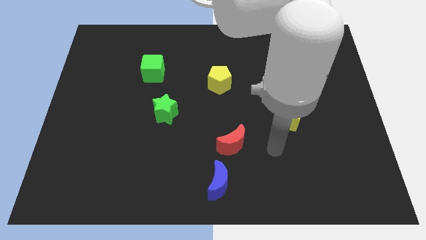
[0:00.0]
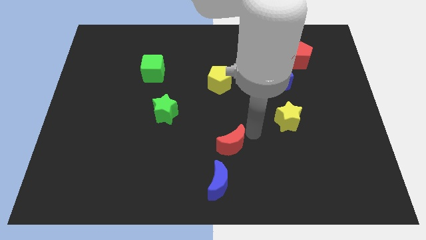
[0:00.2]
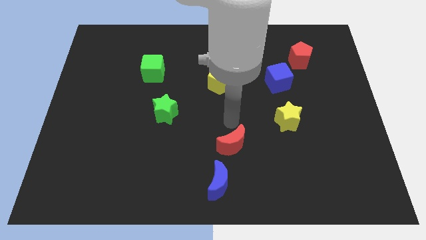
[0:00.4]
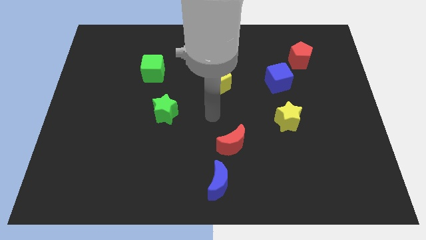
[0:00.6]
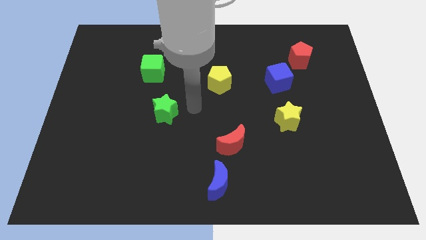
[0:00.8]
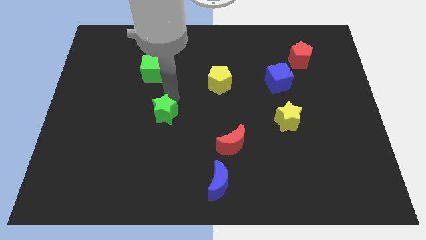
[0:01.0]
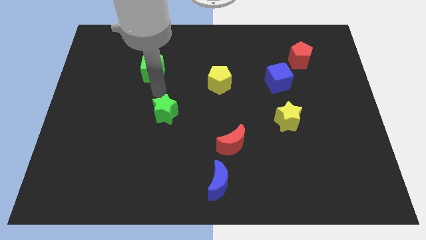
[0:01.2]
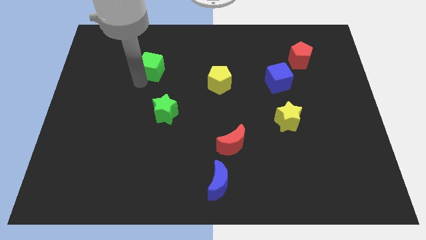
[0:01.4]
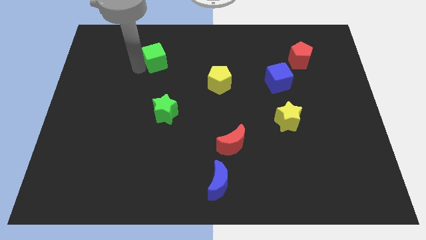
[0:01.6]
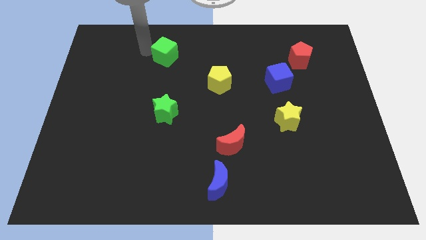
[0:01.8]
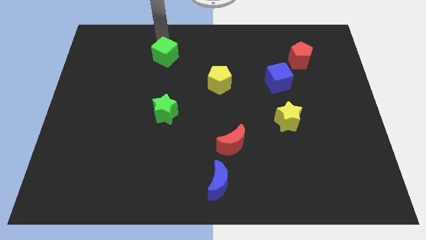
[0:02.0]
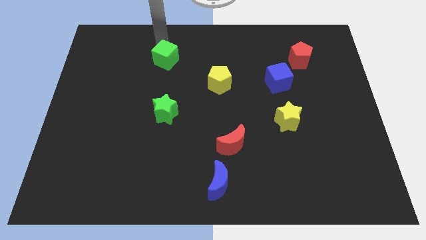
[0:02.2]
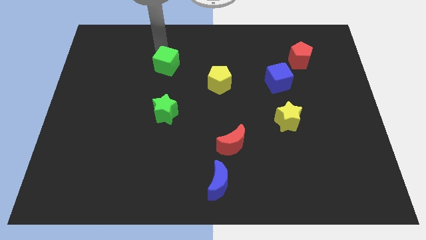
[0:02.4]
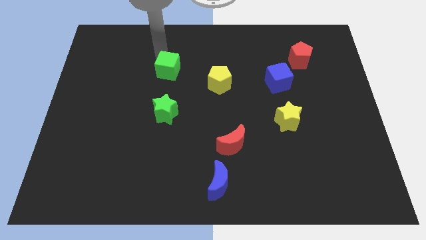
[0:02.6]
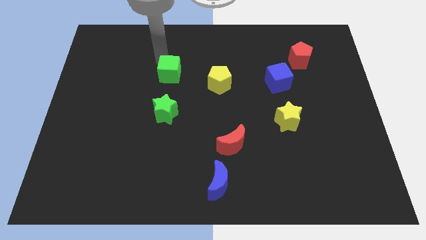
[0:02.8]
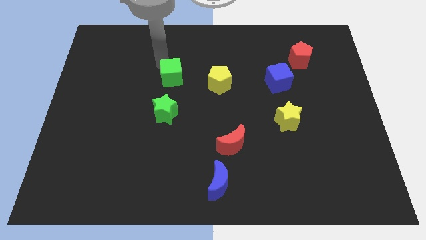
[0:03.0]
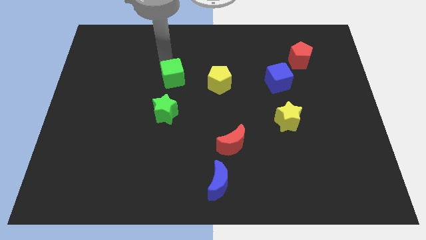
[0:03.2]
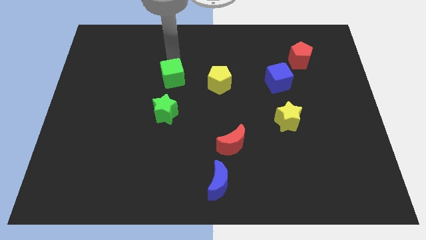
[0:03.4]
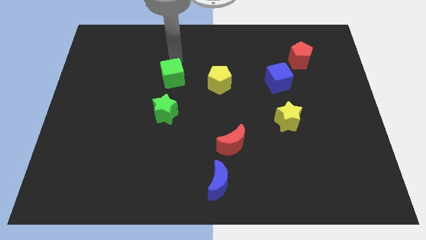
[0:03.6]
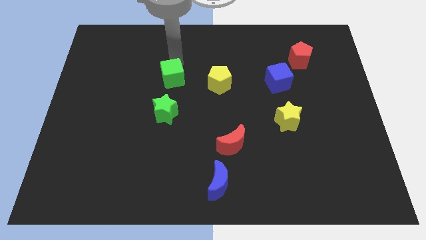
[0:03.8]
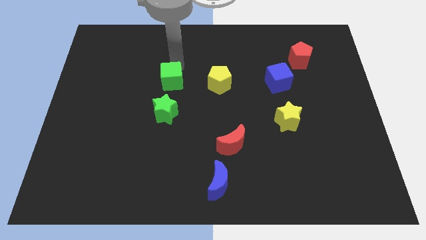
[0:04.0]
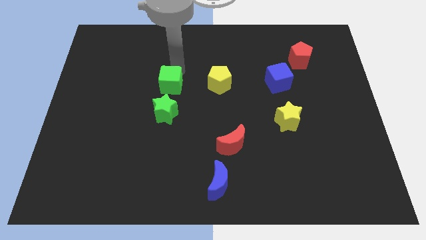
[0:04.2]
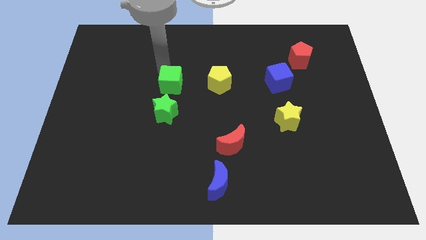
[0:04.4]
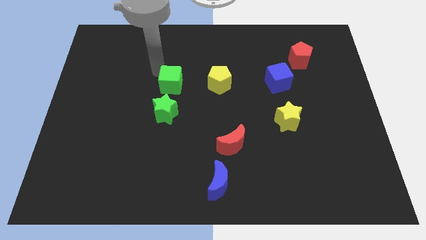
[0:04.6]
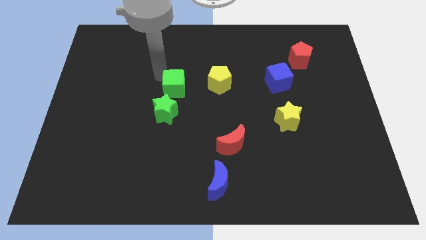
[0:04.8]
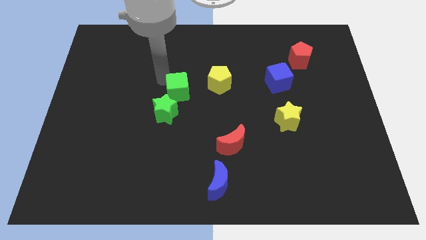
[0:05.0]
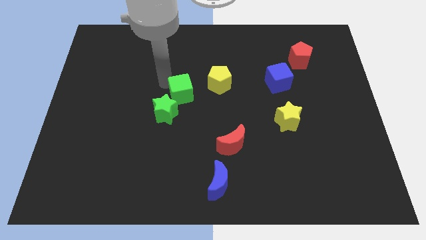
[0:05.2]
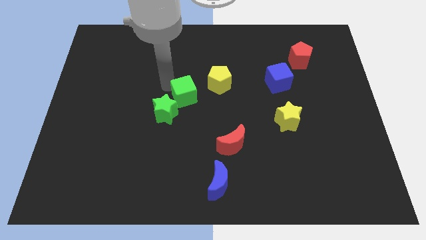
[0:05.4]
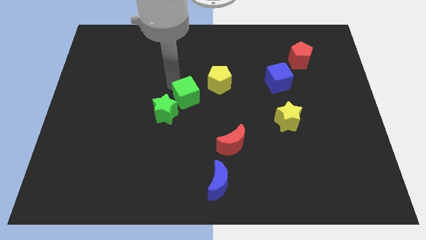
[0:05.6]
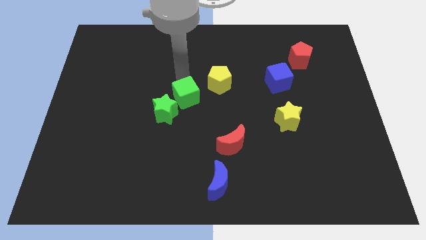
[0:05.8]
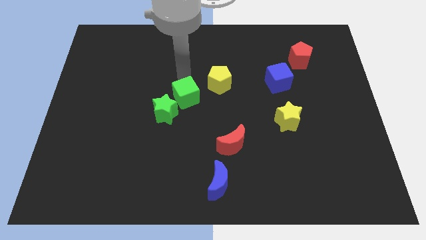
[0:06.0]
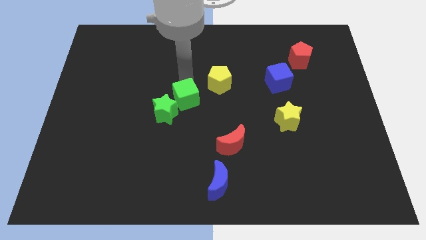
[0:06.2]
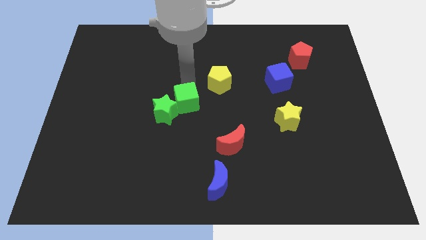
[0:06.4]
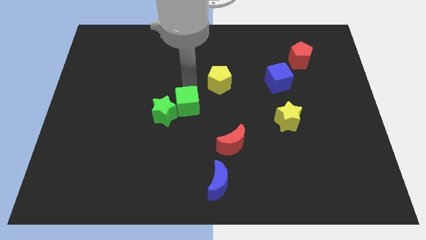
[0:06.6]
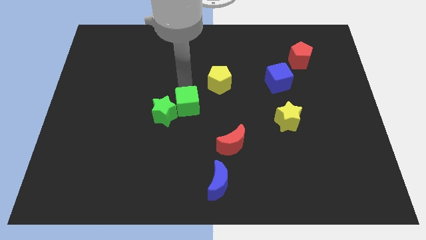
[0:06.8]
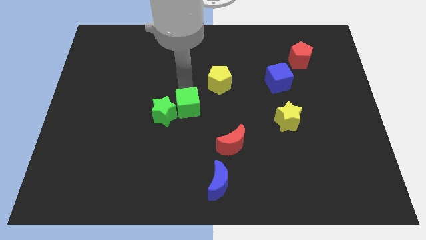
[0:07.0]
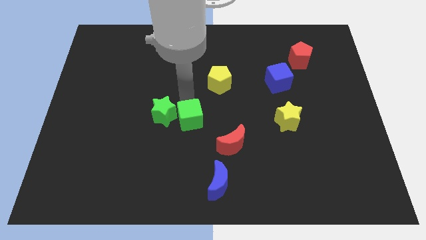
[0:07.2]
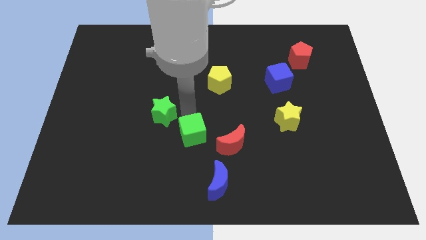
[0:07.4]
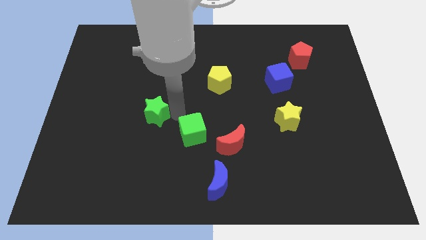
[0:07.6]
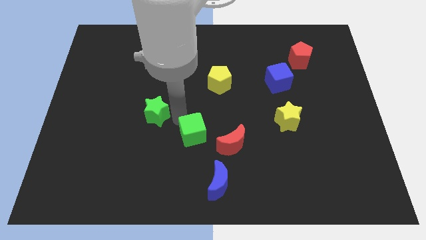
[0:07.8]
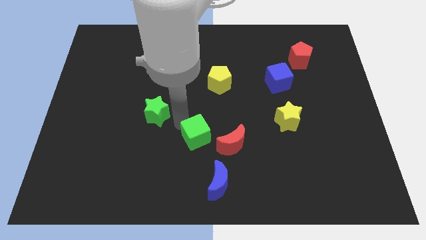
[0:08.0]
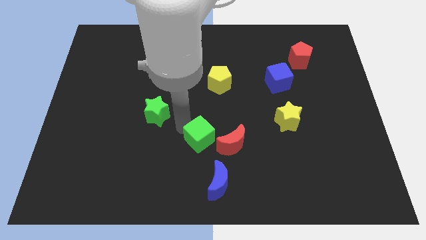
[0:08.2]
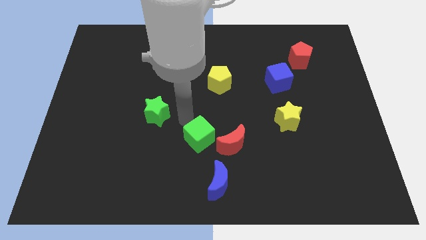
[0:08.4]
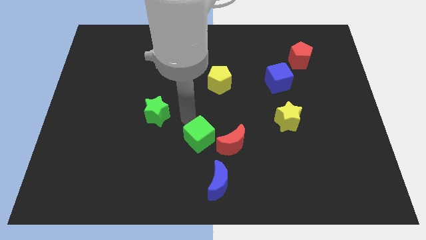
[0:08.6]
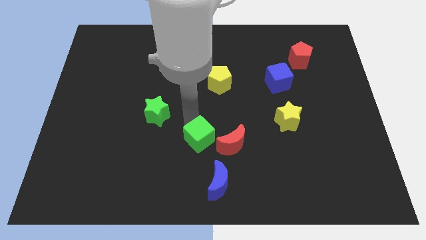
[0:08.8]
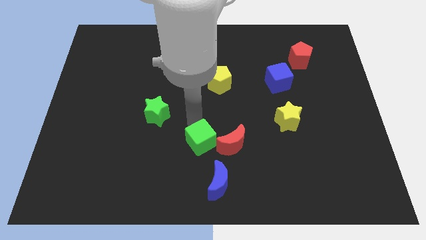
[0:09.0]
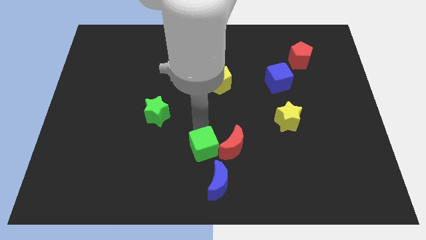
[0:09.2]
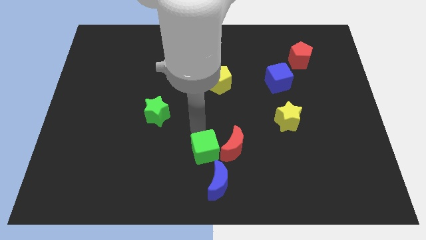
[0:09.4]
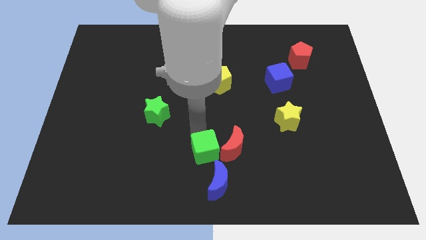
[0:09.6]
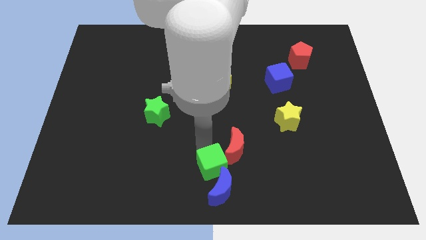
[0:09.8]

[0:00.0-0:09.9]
move the green cube next to the blue moon

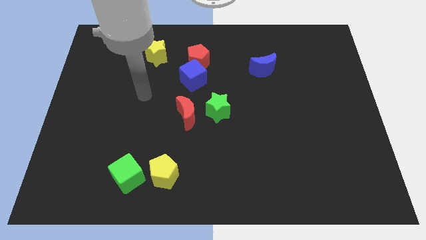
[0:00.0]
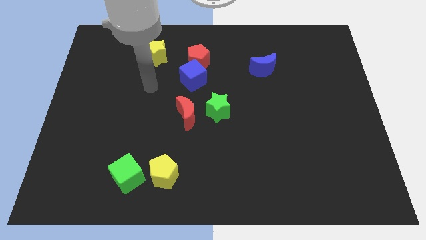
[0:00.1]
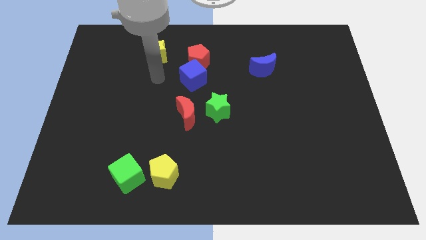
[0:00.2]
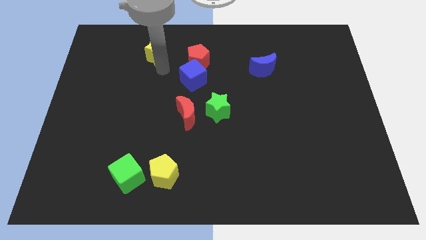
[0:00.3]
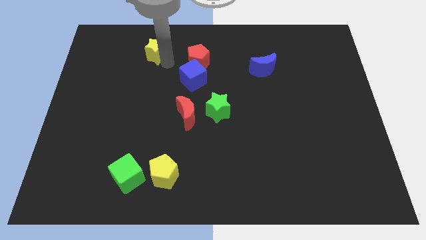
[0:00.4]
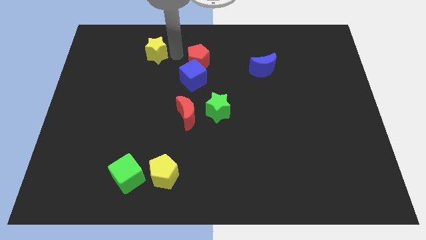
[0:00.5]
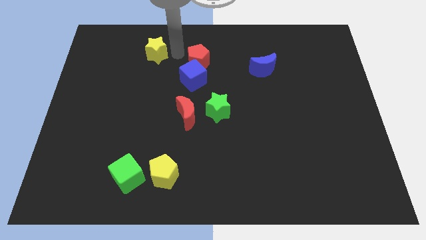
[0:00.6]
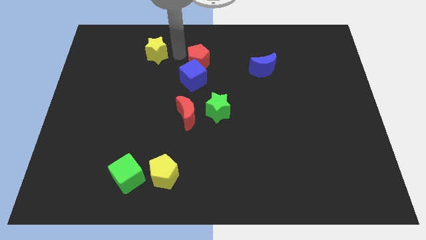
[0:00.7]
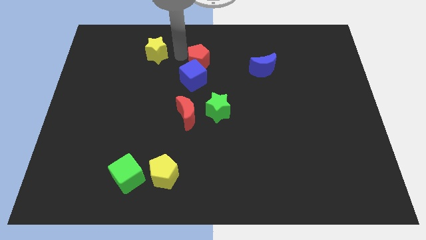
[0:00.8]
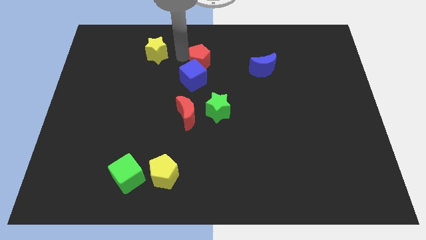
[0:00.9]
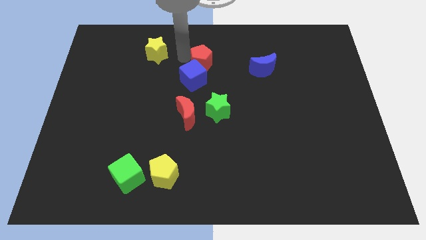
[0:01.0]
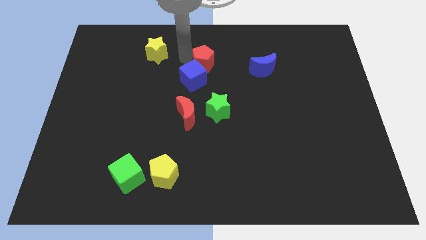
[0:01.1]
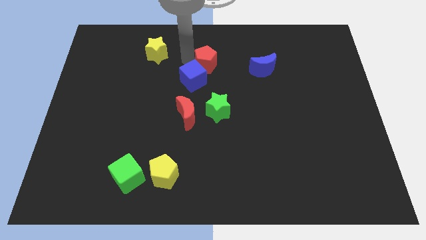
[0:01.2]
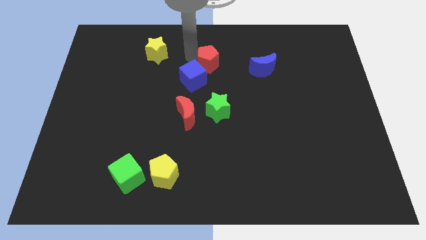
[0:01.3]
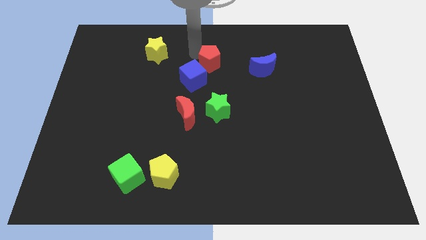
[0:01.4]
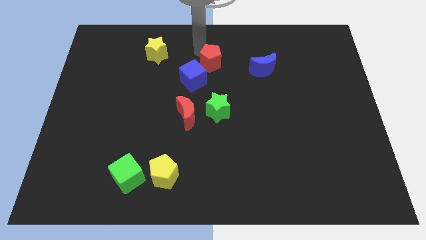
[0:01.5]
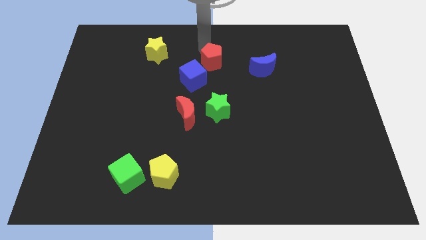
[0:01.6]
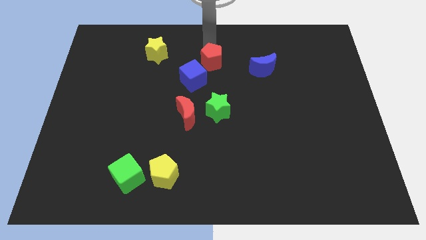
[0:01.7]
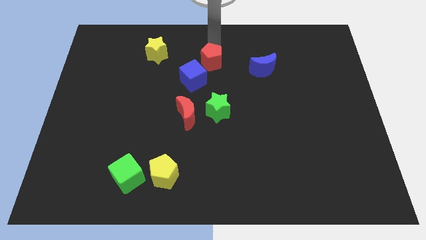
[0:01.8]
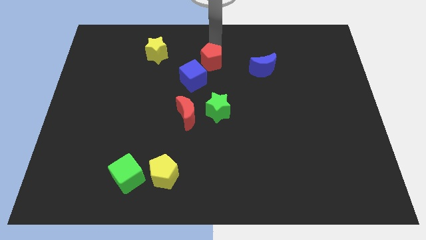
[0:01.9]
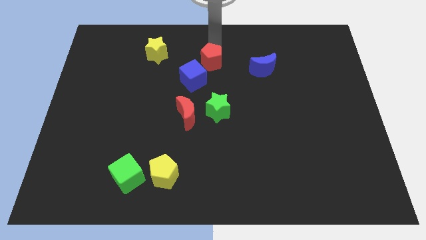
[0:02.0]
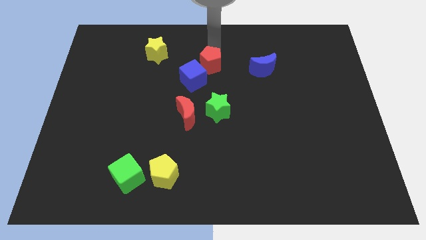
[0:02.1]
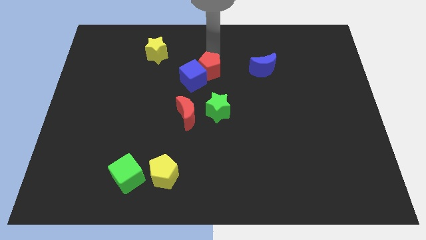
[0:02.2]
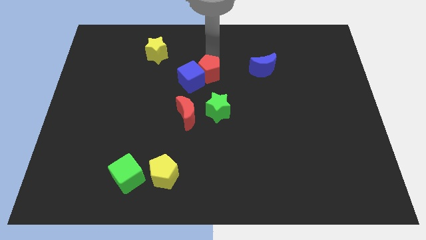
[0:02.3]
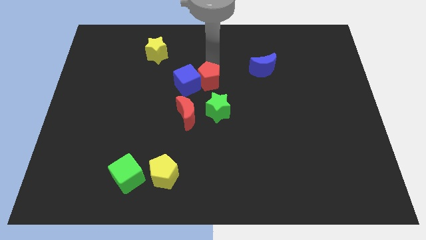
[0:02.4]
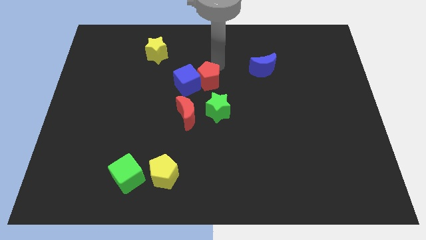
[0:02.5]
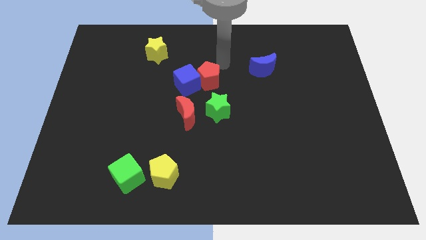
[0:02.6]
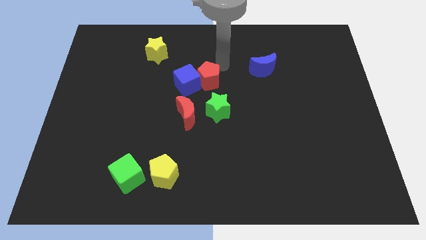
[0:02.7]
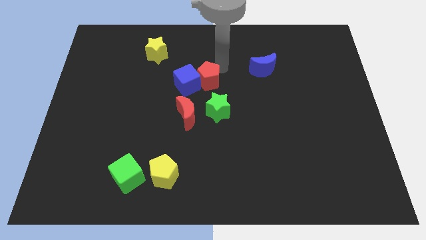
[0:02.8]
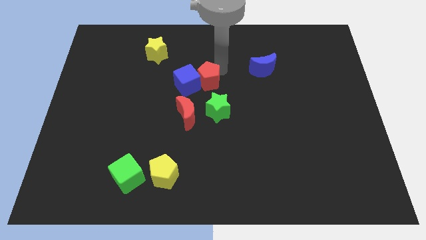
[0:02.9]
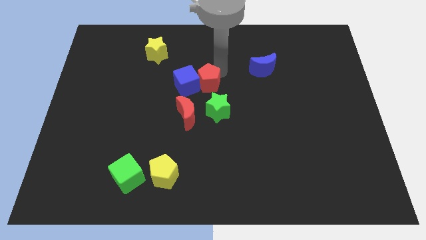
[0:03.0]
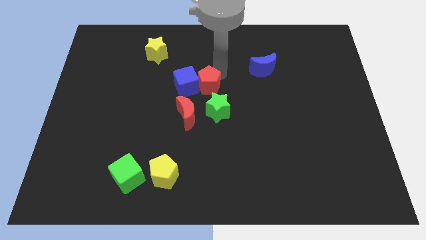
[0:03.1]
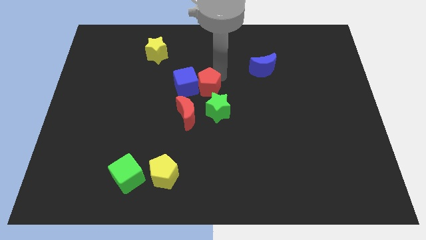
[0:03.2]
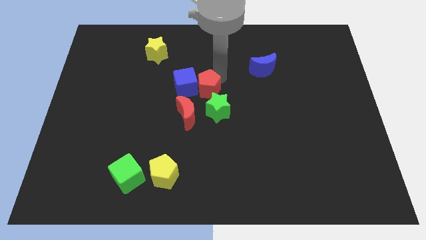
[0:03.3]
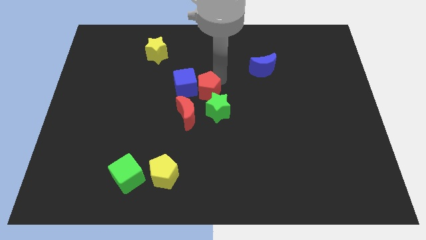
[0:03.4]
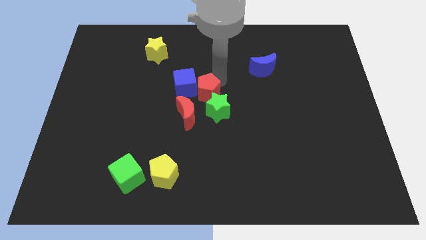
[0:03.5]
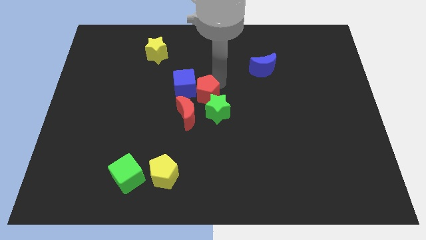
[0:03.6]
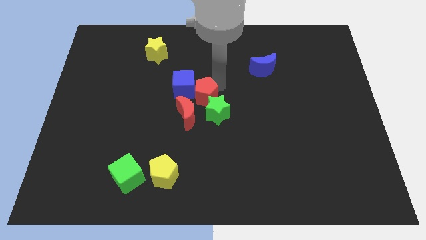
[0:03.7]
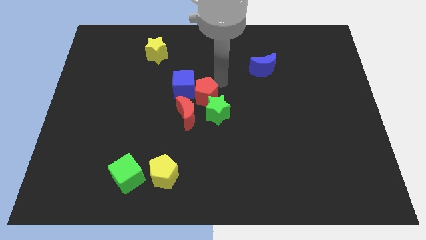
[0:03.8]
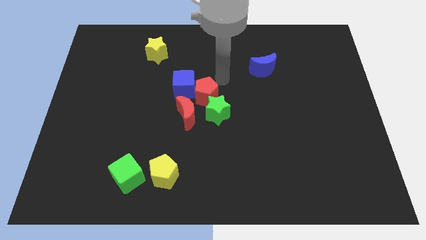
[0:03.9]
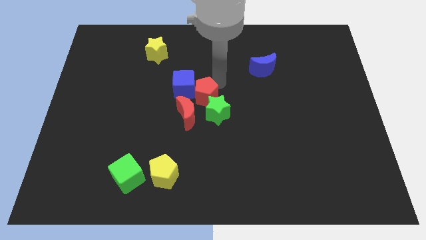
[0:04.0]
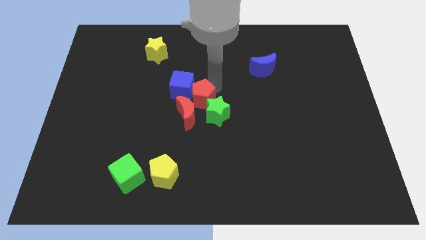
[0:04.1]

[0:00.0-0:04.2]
slide the red pentagon towards the red moon
